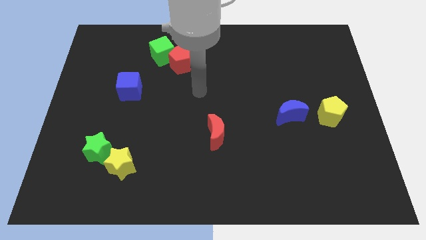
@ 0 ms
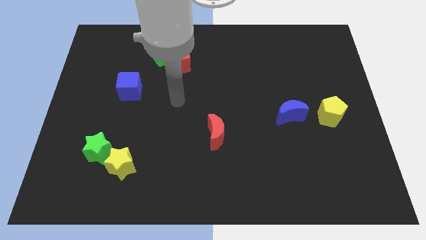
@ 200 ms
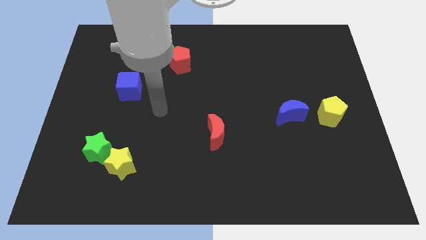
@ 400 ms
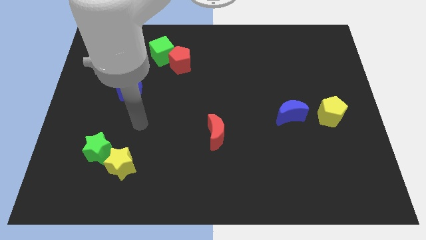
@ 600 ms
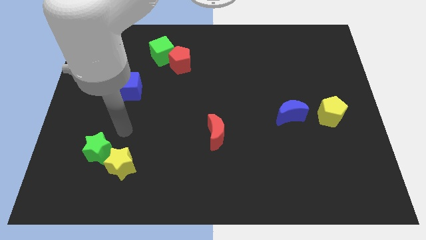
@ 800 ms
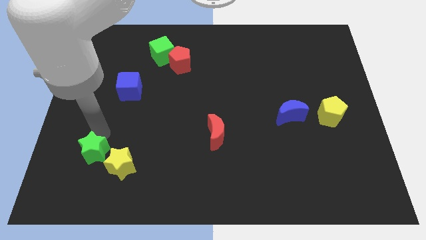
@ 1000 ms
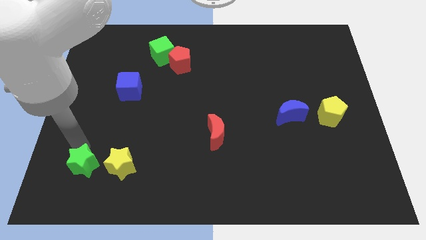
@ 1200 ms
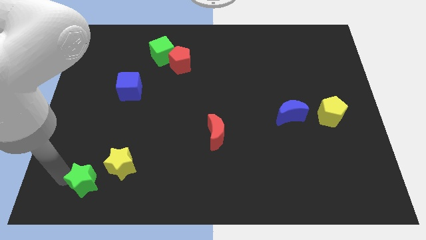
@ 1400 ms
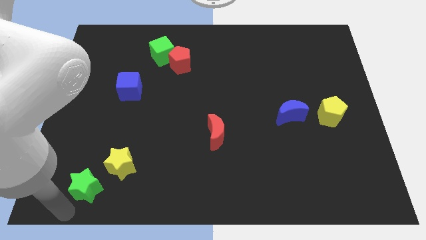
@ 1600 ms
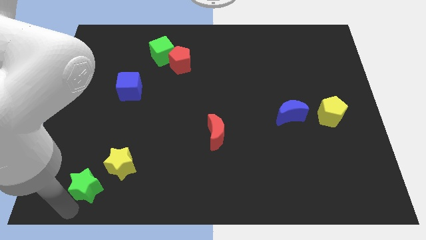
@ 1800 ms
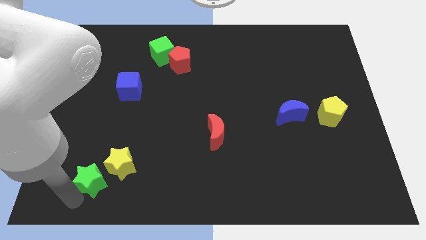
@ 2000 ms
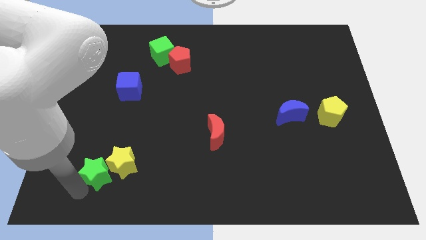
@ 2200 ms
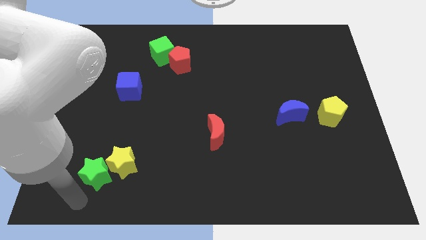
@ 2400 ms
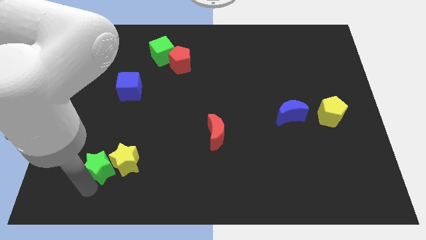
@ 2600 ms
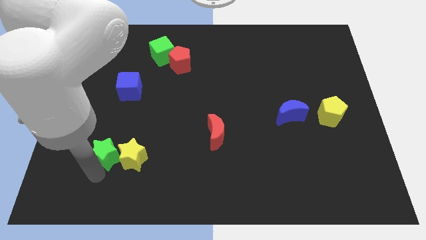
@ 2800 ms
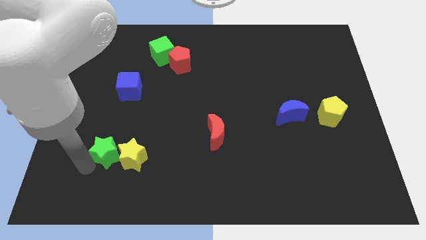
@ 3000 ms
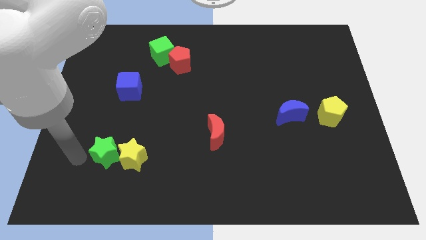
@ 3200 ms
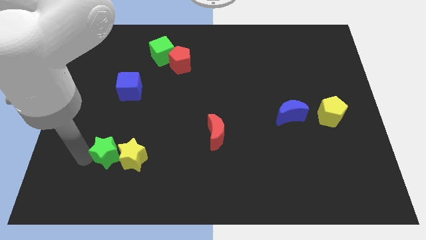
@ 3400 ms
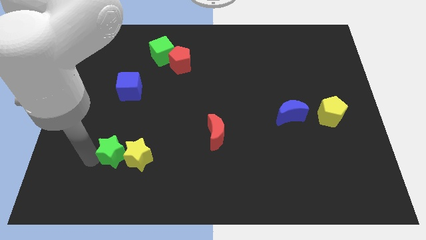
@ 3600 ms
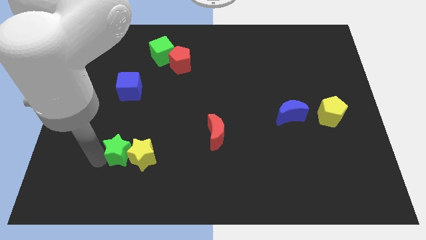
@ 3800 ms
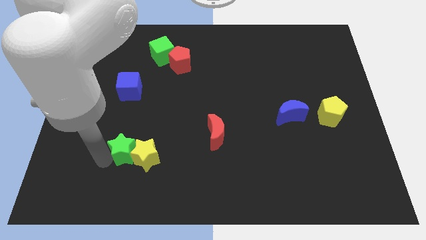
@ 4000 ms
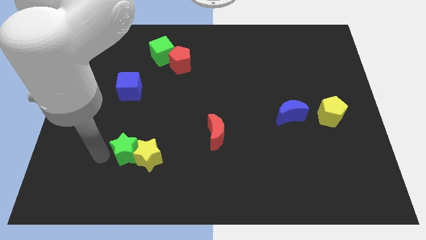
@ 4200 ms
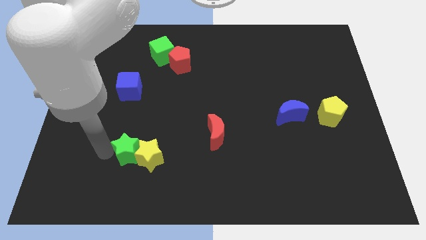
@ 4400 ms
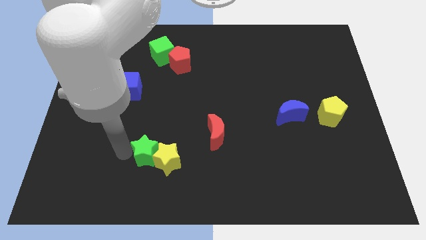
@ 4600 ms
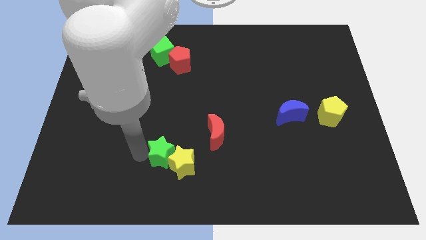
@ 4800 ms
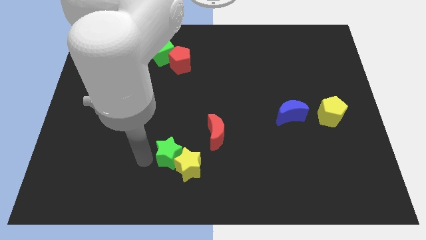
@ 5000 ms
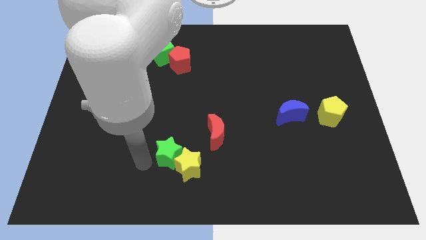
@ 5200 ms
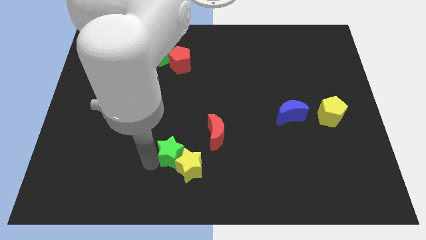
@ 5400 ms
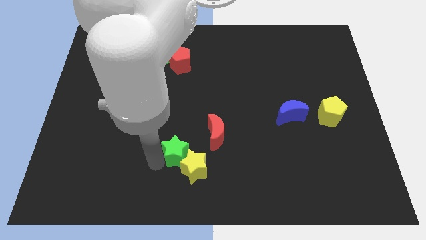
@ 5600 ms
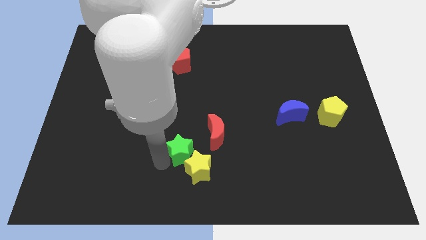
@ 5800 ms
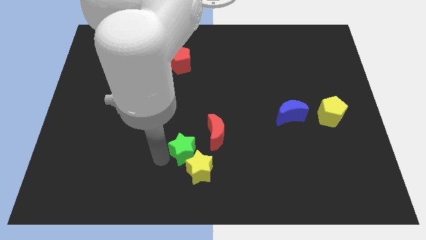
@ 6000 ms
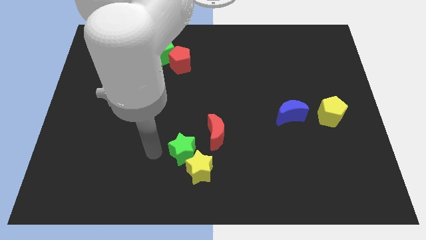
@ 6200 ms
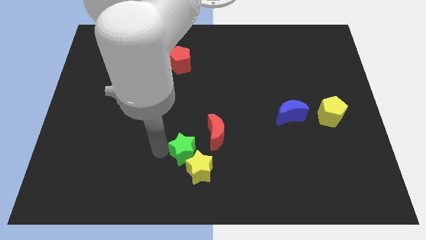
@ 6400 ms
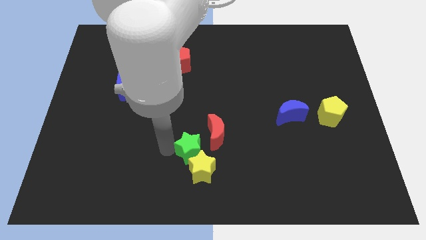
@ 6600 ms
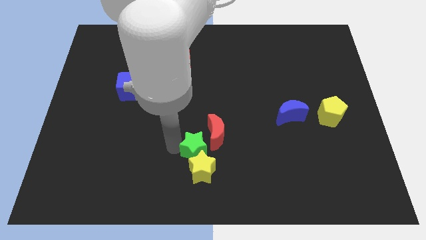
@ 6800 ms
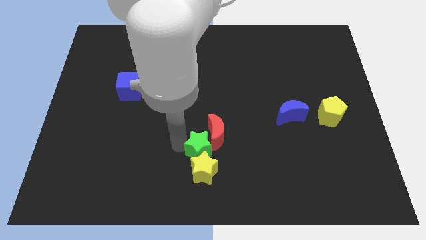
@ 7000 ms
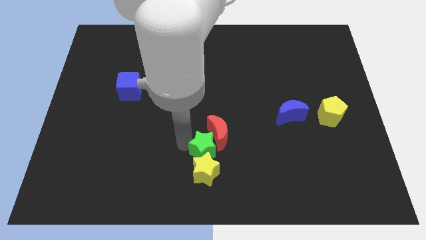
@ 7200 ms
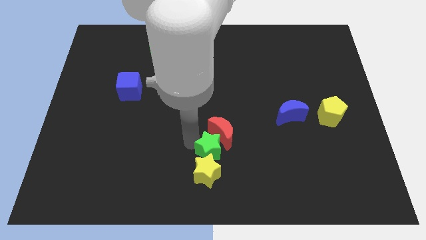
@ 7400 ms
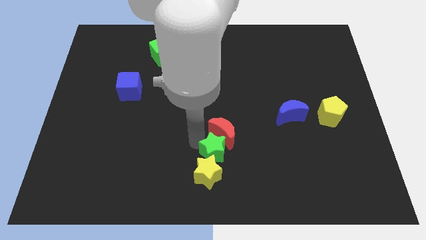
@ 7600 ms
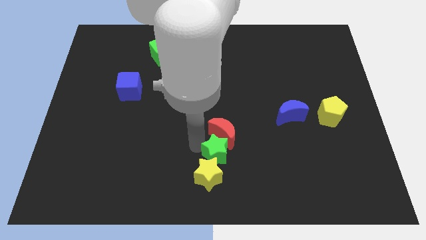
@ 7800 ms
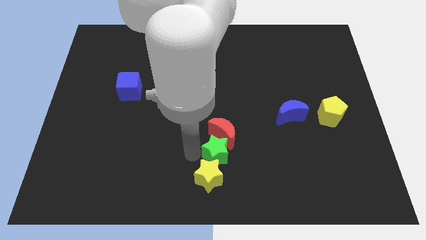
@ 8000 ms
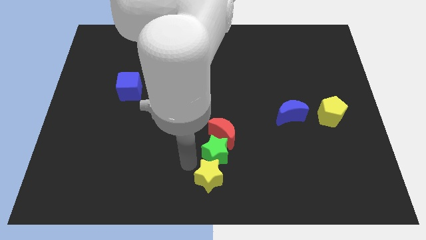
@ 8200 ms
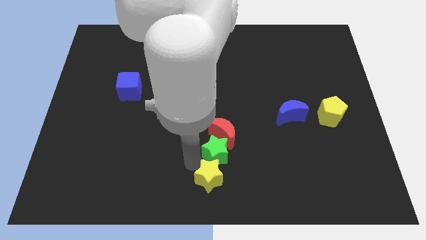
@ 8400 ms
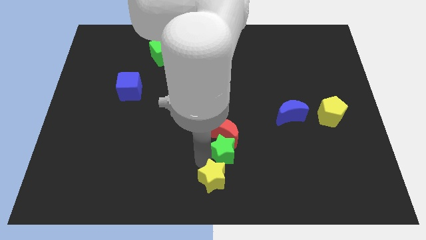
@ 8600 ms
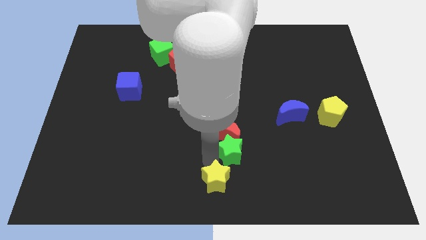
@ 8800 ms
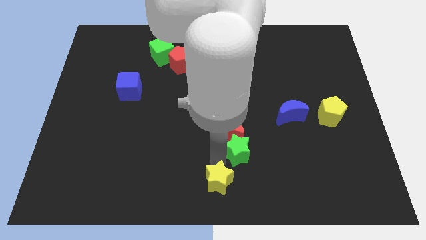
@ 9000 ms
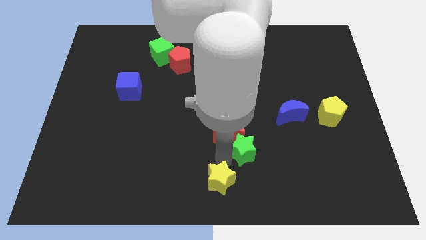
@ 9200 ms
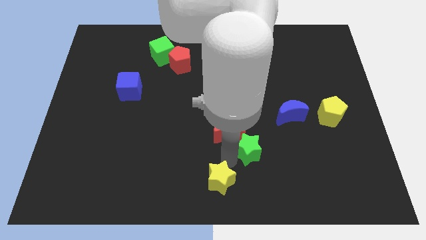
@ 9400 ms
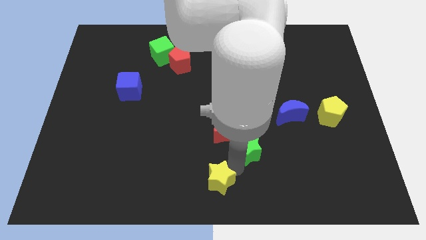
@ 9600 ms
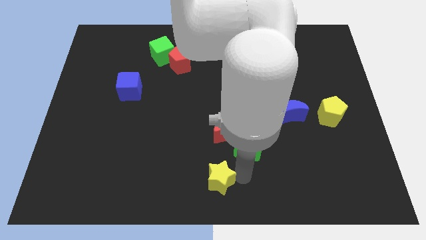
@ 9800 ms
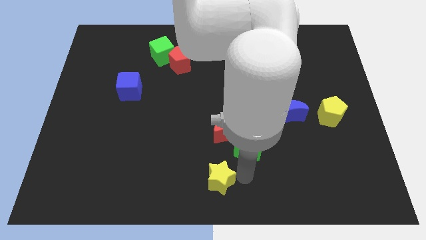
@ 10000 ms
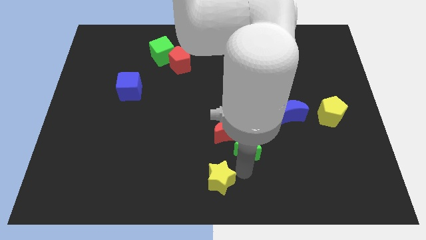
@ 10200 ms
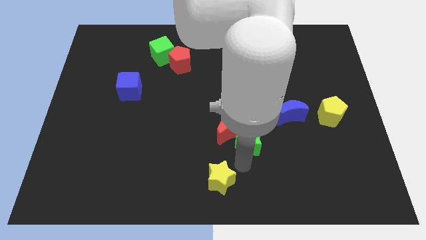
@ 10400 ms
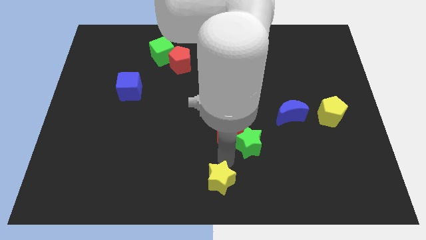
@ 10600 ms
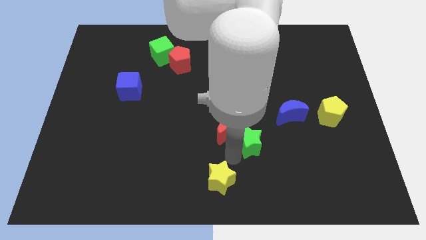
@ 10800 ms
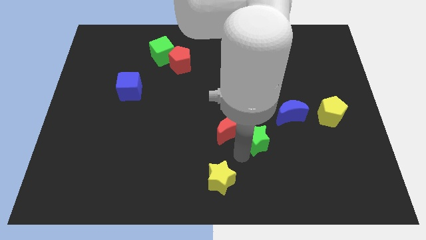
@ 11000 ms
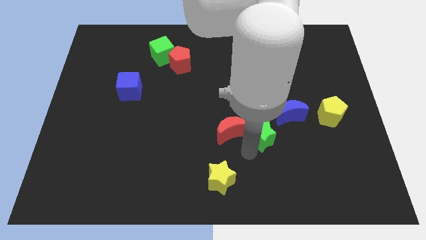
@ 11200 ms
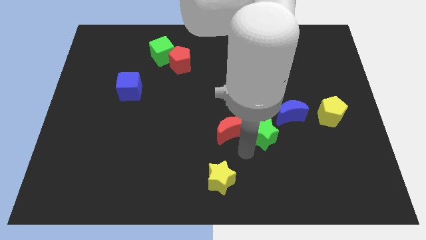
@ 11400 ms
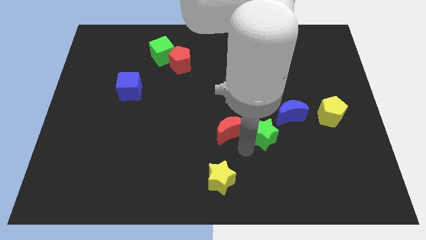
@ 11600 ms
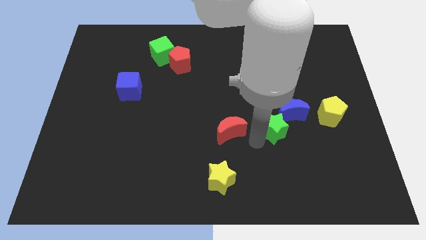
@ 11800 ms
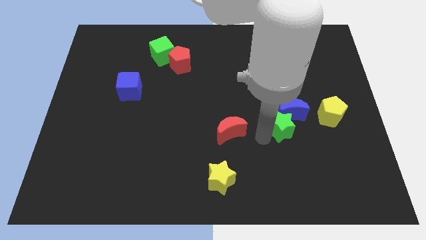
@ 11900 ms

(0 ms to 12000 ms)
slide the green star towards the blue moon
